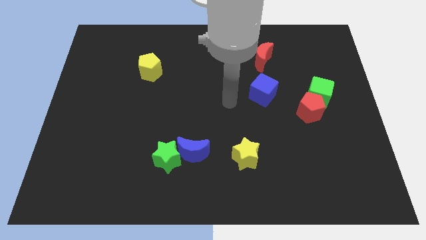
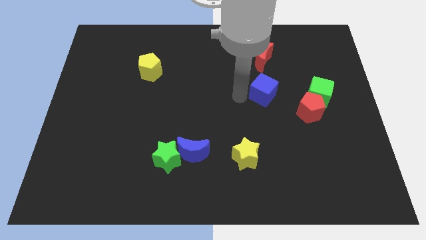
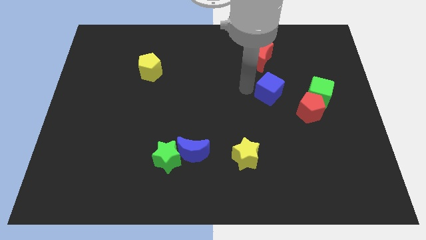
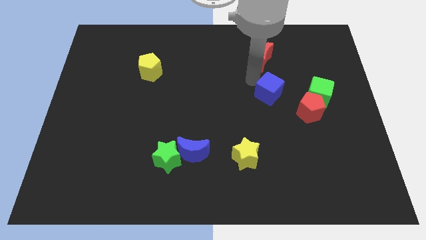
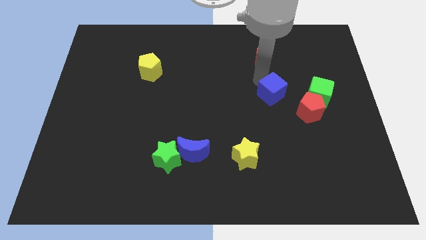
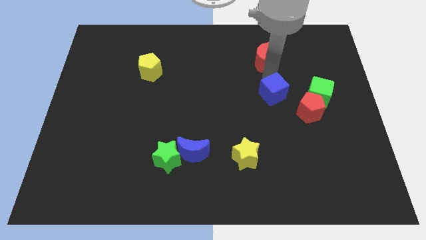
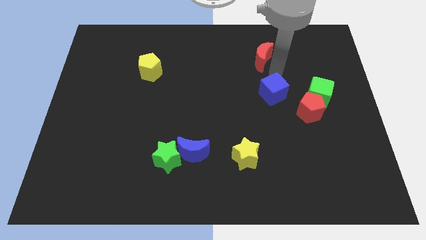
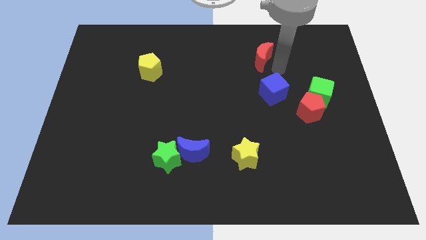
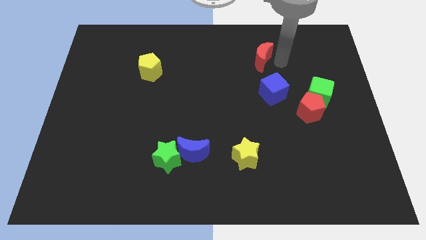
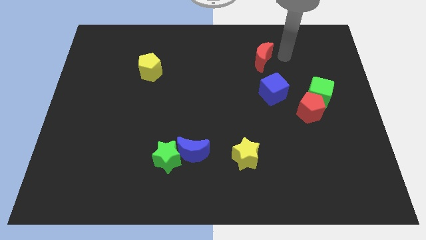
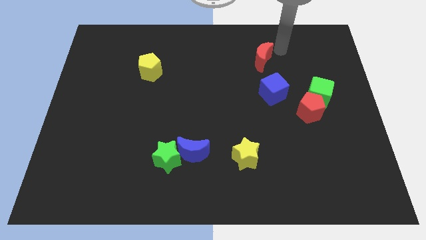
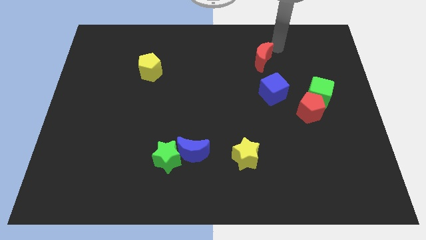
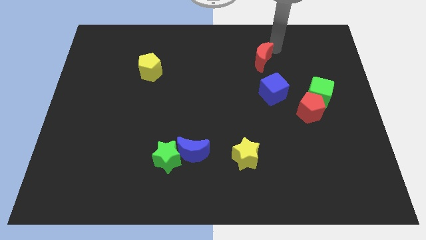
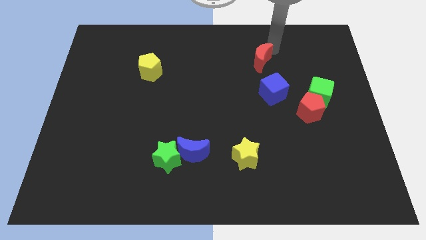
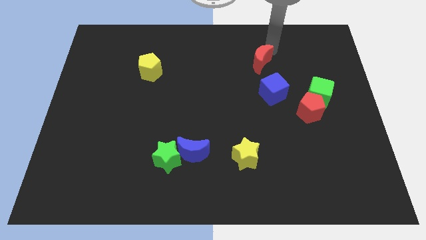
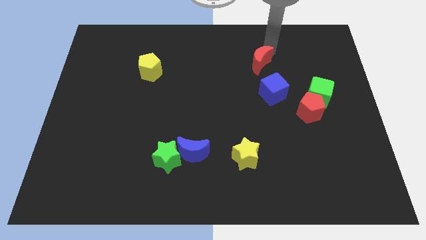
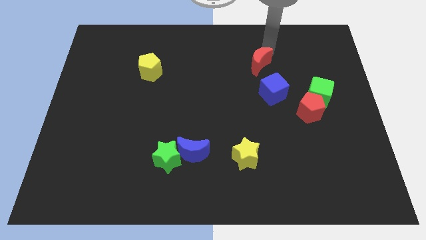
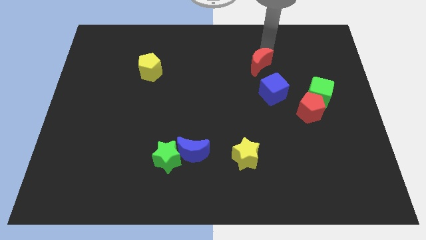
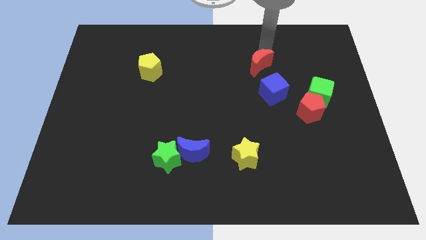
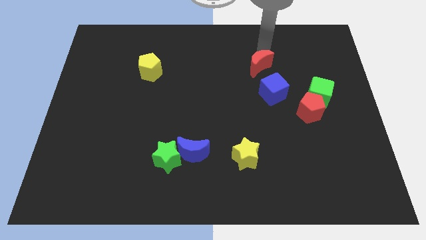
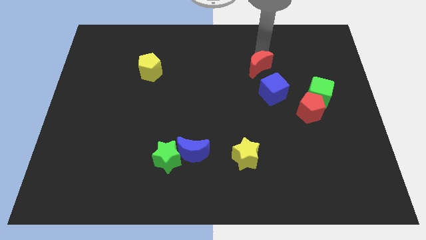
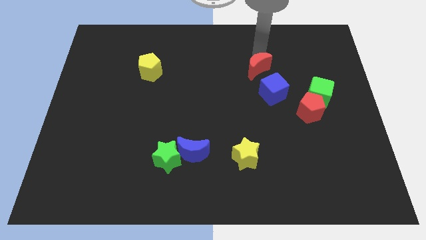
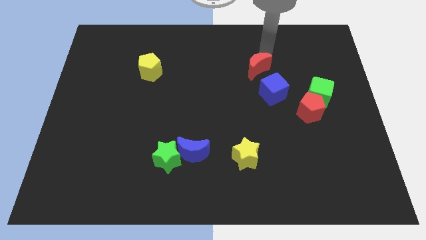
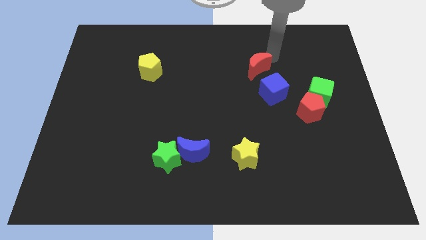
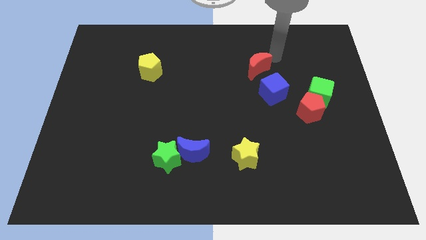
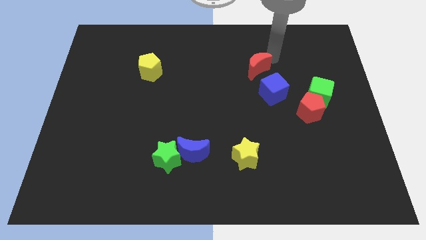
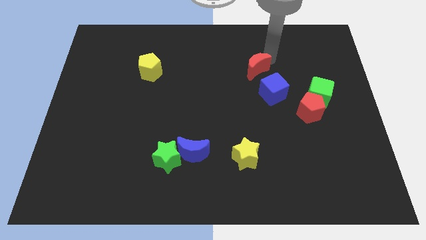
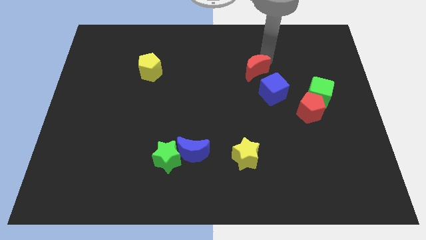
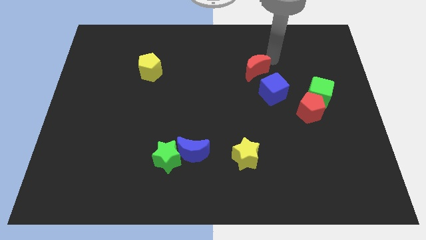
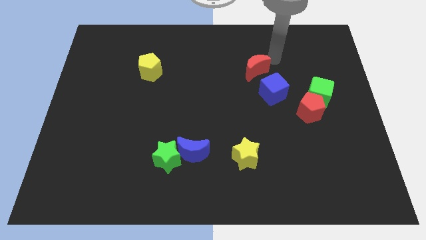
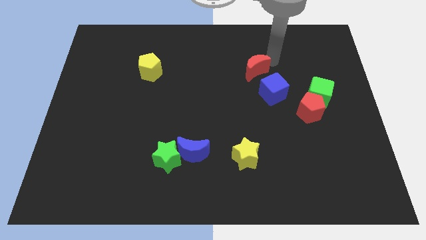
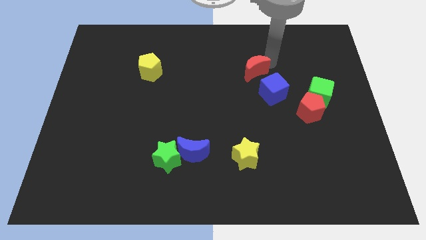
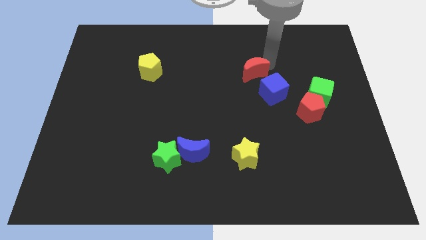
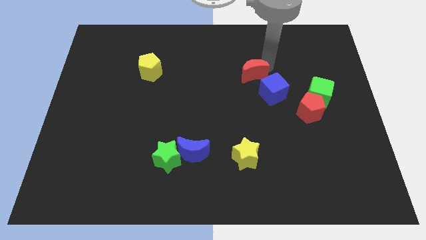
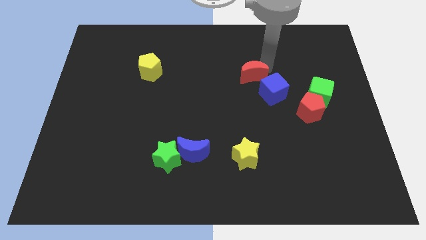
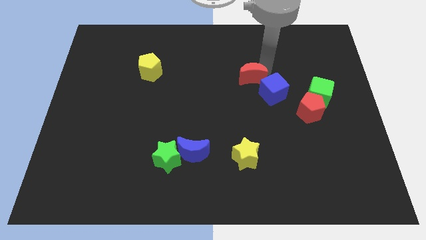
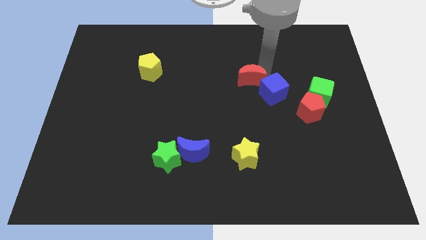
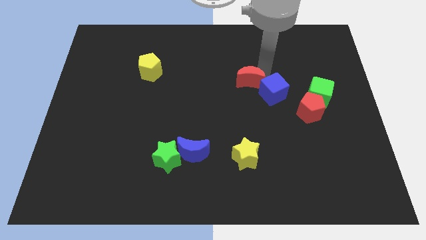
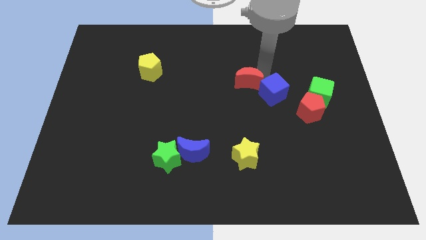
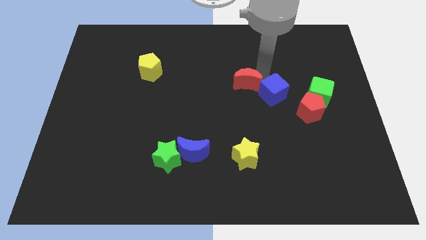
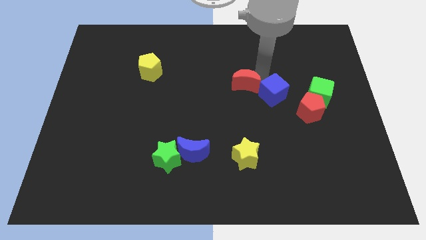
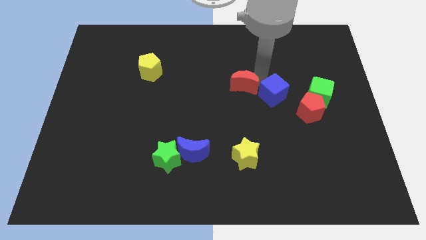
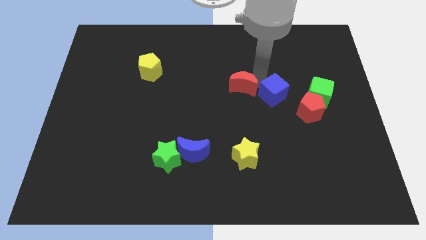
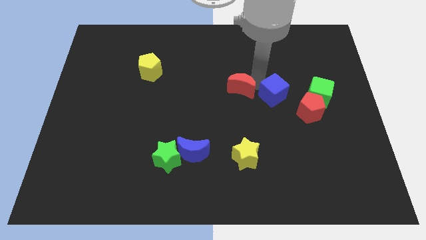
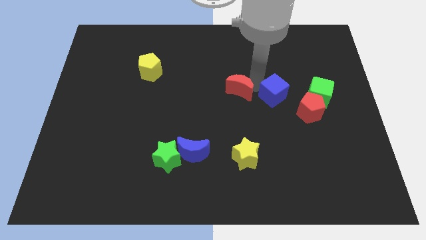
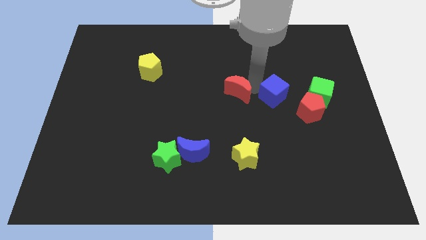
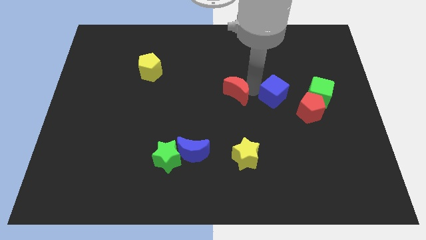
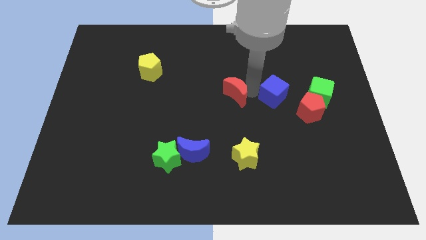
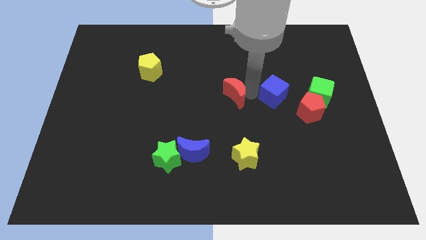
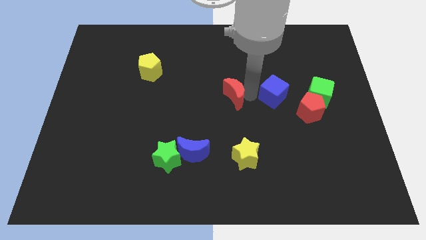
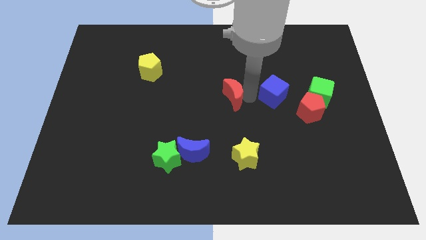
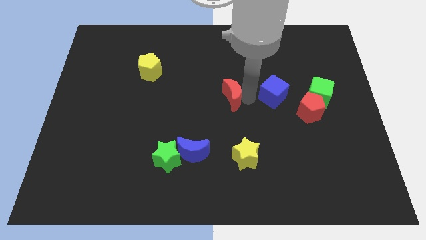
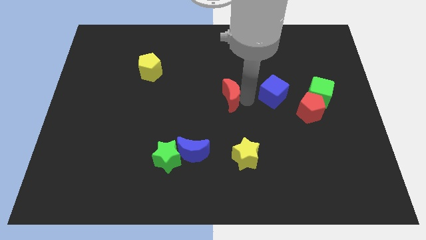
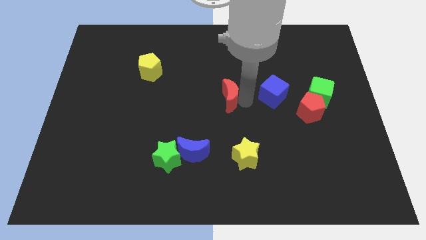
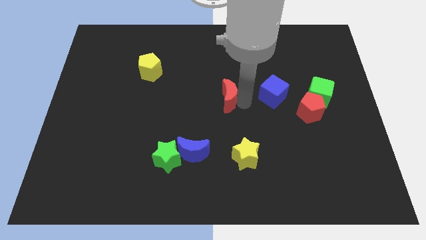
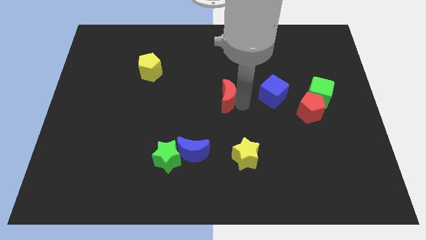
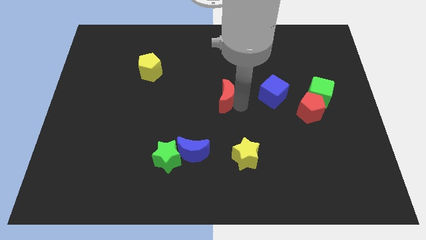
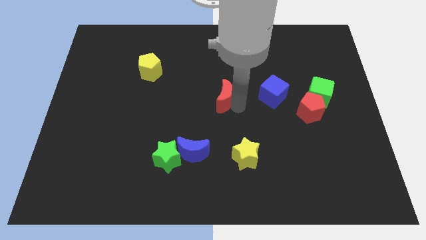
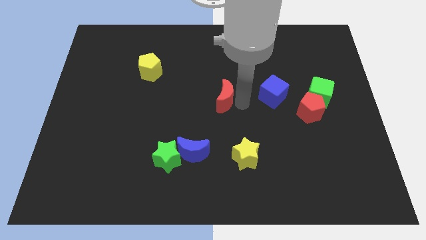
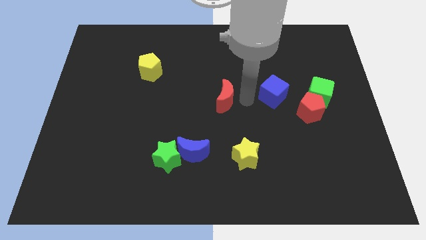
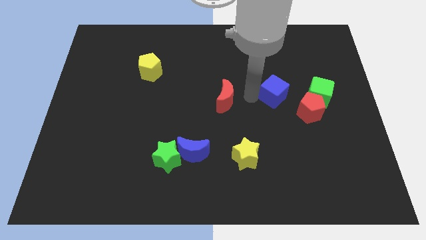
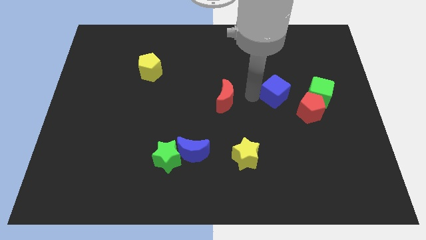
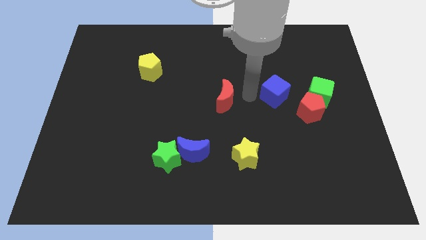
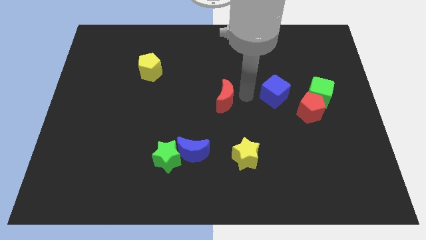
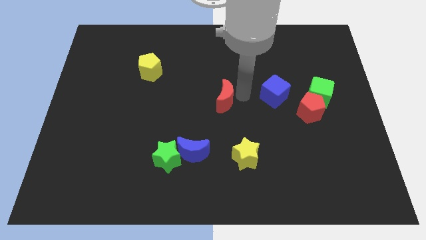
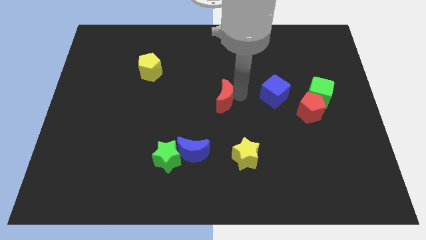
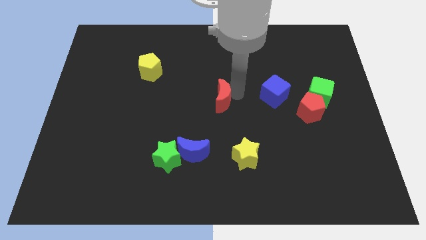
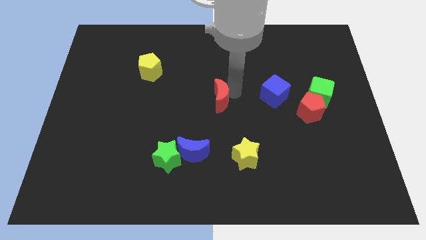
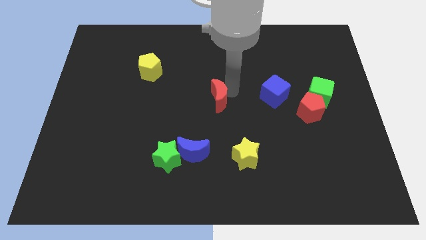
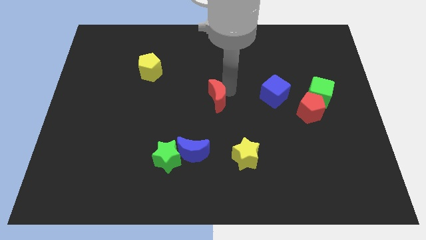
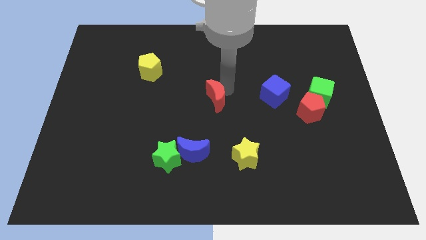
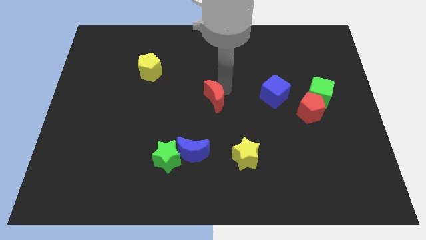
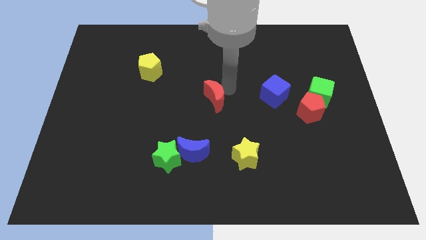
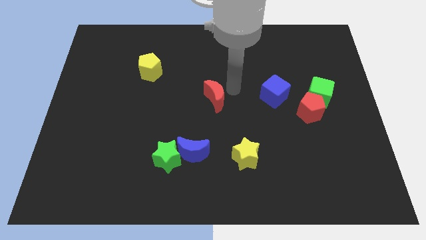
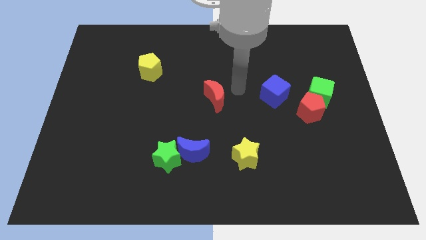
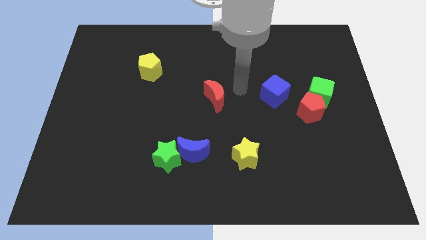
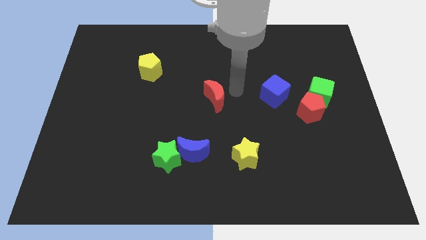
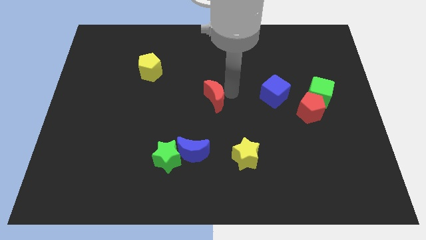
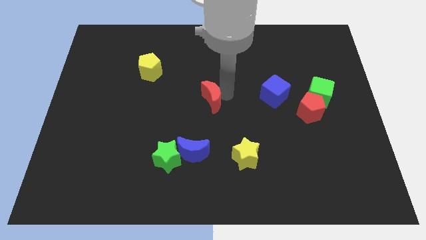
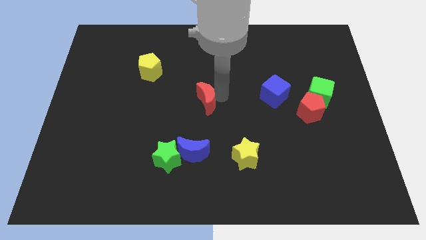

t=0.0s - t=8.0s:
slide the red moon downwards and to the left

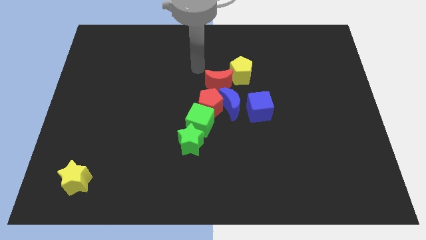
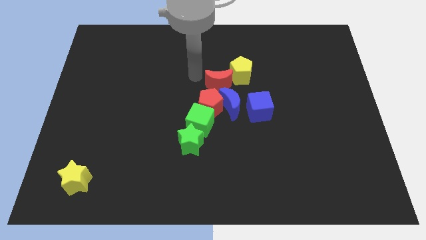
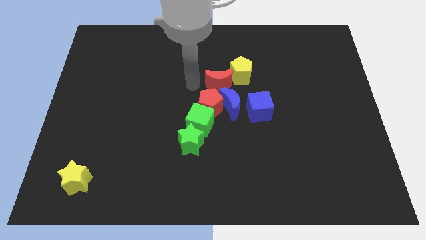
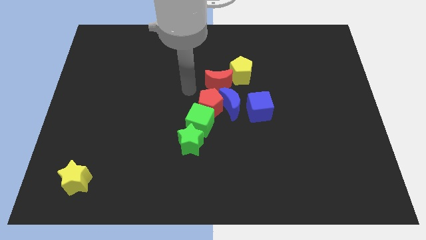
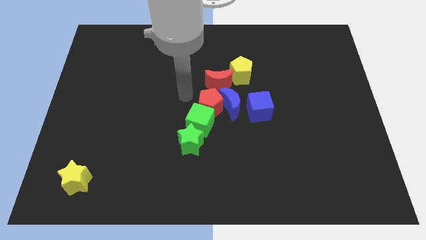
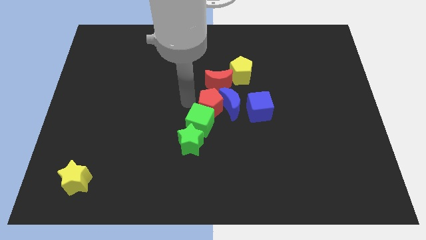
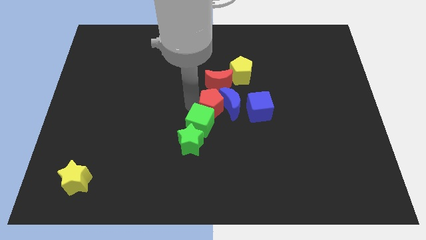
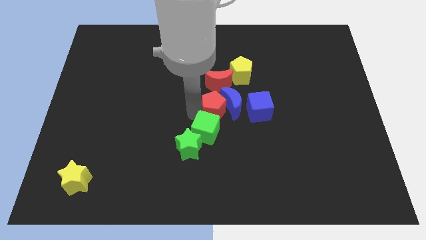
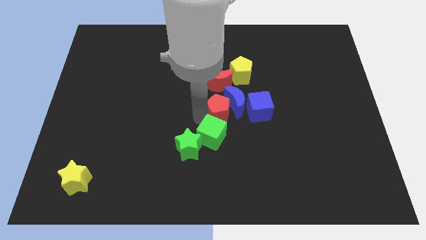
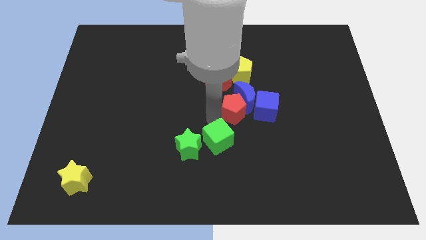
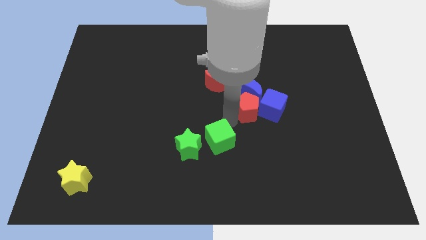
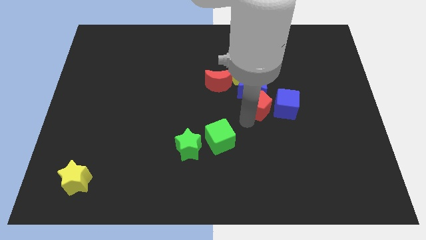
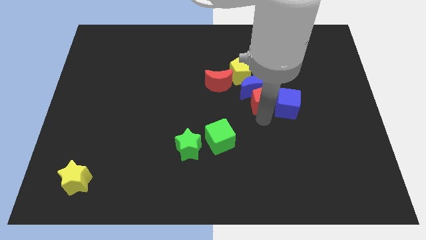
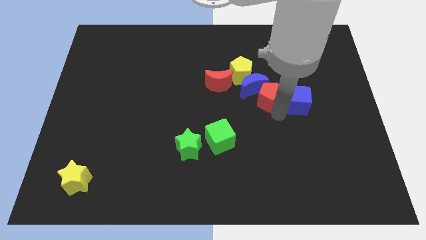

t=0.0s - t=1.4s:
move the red pentagon up and right diagonally somewhat
